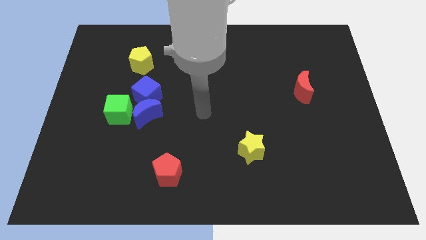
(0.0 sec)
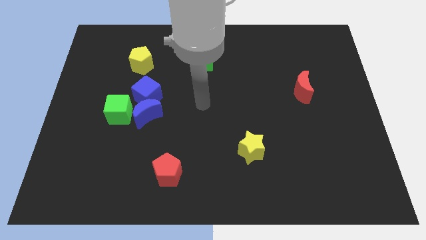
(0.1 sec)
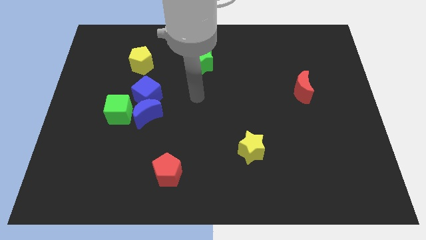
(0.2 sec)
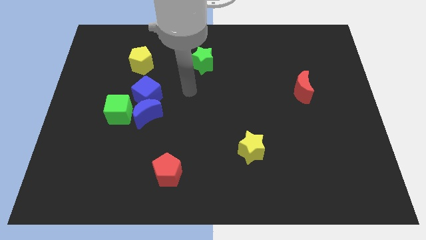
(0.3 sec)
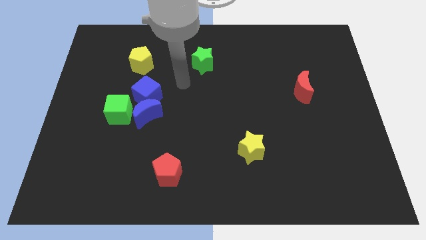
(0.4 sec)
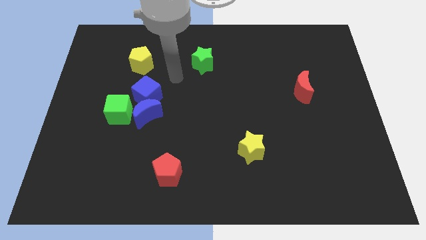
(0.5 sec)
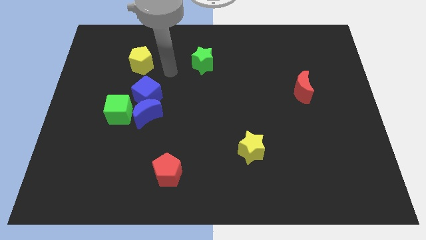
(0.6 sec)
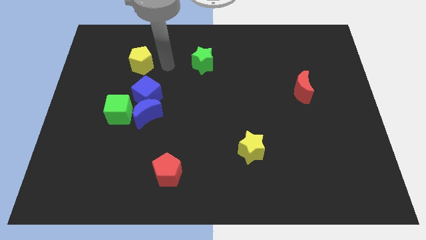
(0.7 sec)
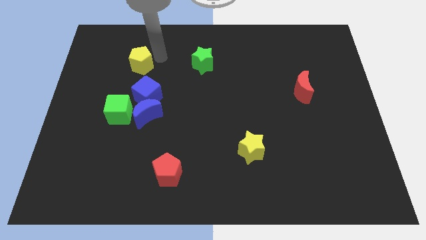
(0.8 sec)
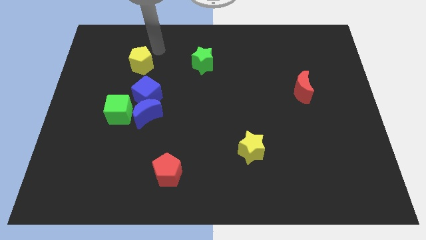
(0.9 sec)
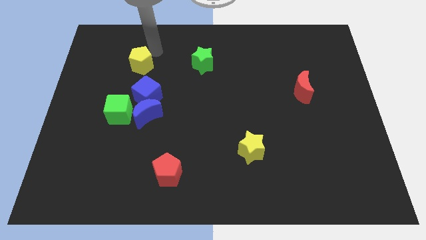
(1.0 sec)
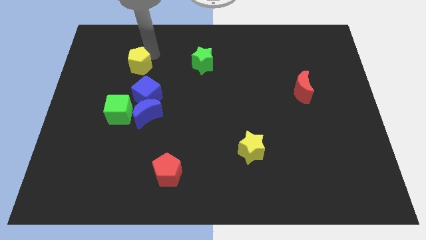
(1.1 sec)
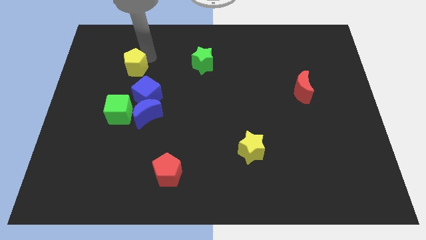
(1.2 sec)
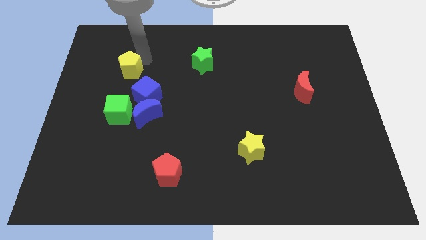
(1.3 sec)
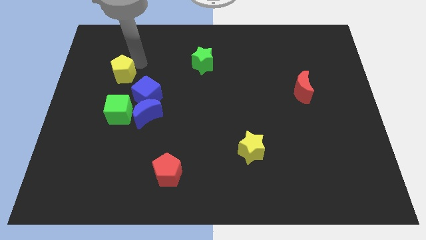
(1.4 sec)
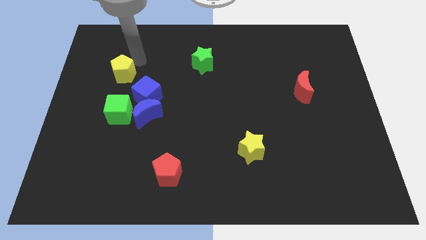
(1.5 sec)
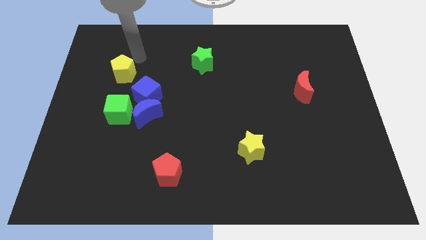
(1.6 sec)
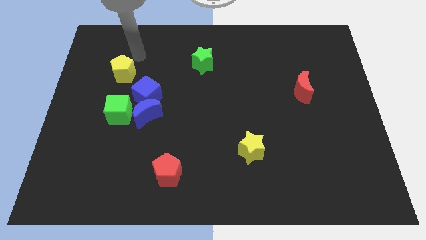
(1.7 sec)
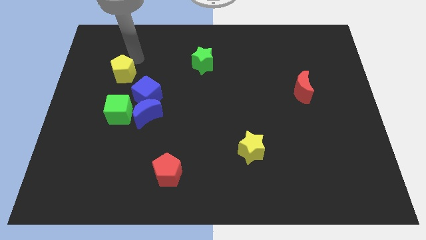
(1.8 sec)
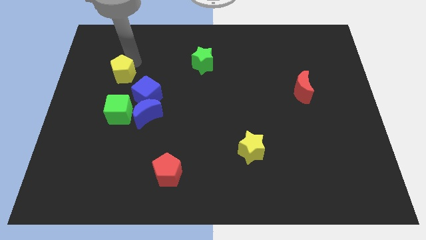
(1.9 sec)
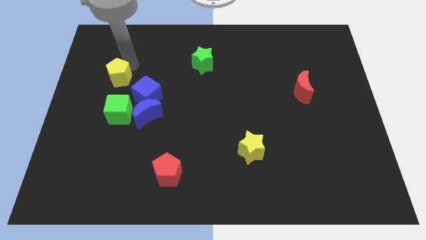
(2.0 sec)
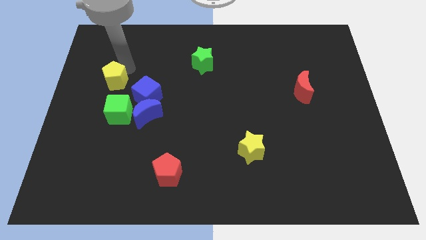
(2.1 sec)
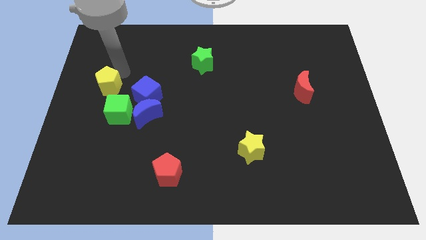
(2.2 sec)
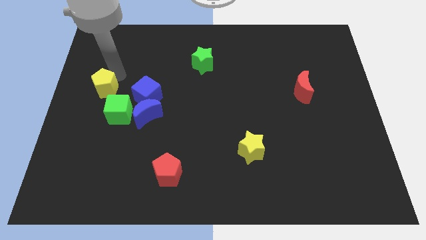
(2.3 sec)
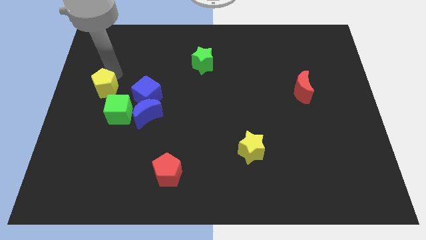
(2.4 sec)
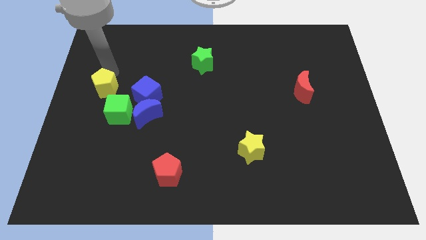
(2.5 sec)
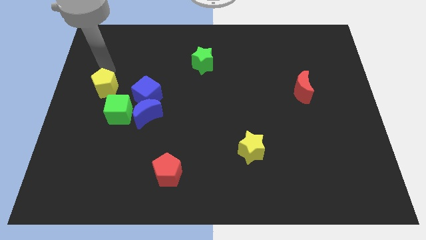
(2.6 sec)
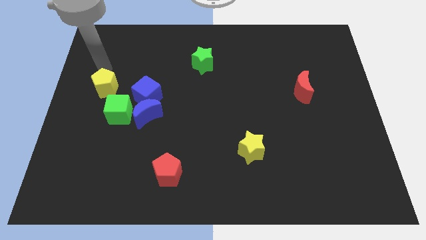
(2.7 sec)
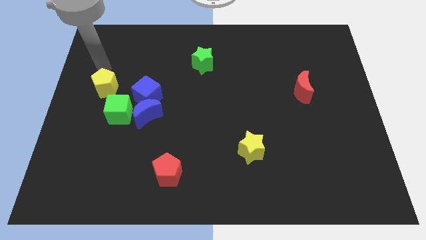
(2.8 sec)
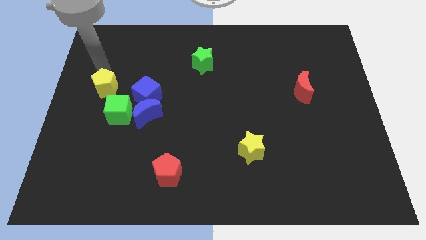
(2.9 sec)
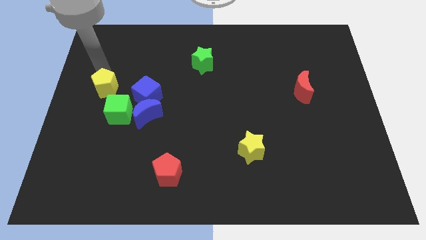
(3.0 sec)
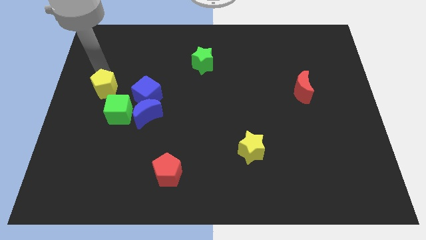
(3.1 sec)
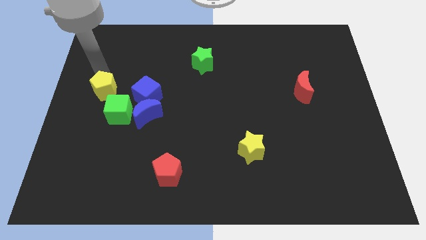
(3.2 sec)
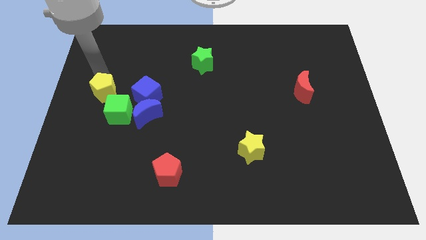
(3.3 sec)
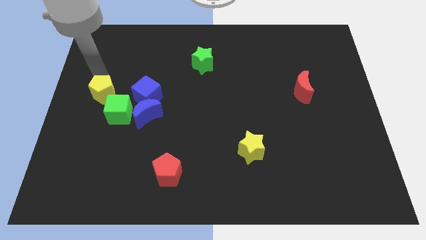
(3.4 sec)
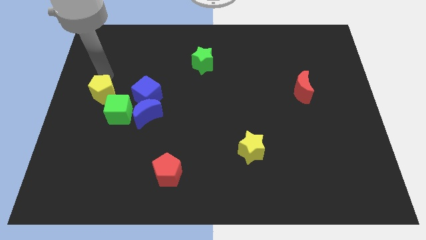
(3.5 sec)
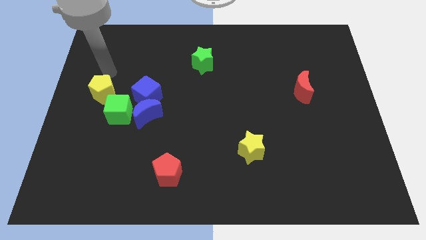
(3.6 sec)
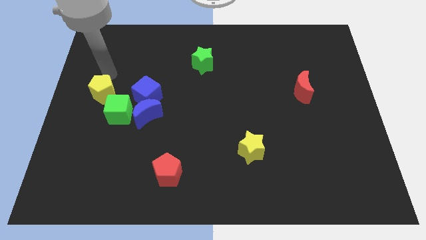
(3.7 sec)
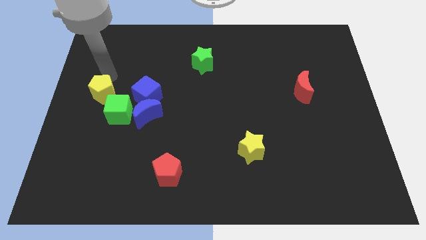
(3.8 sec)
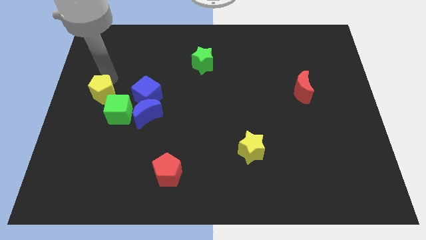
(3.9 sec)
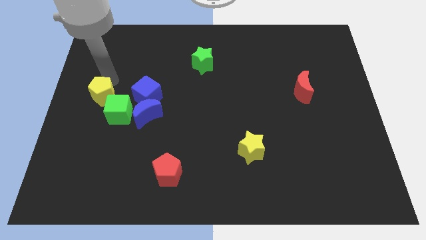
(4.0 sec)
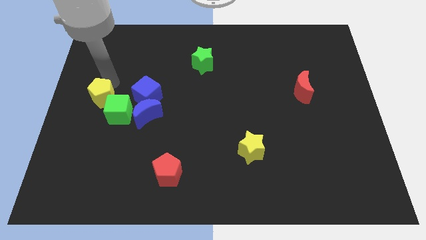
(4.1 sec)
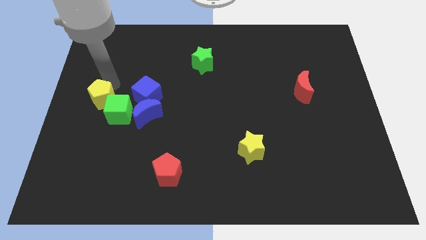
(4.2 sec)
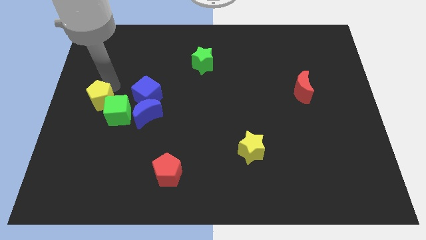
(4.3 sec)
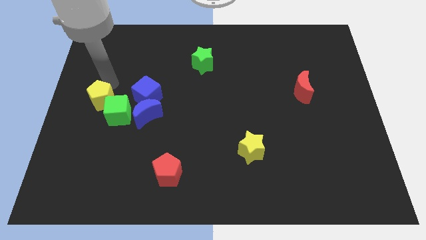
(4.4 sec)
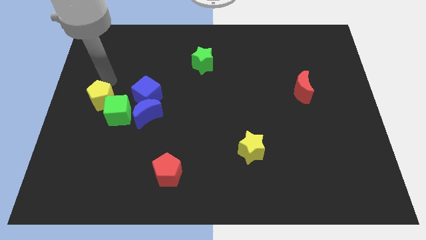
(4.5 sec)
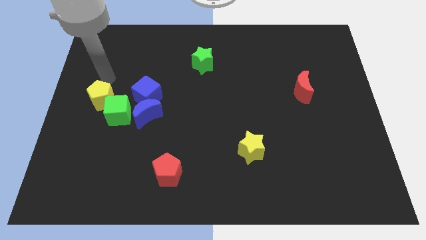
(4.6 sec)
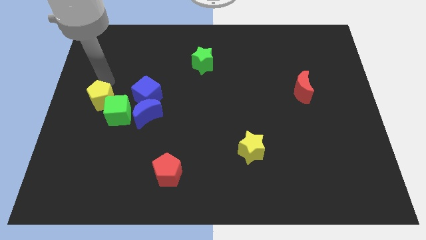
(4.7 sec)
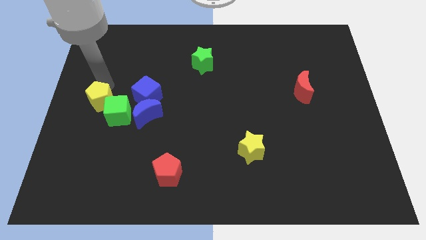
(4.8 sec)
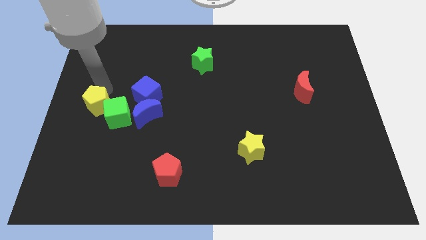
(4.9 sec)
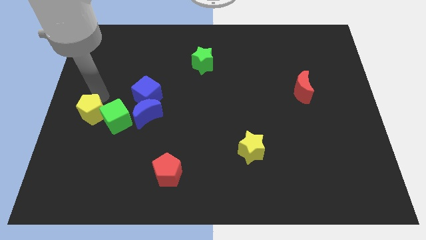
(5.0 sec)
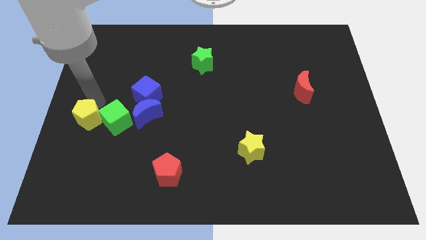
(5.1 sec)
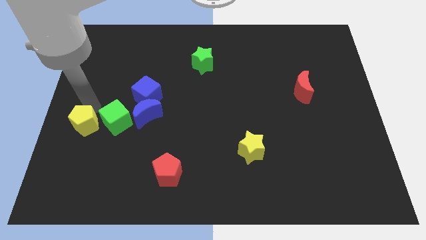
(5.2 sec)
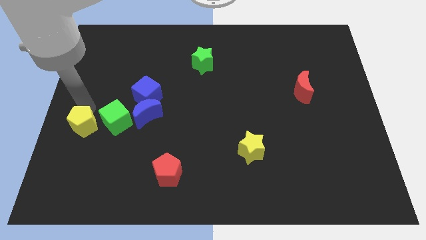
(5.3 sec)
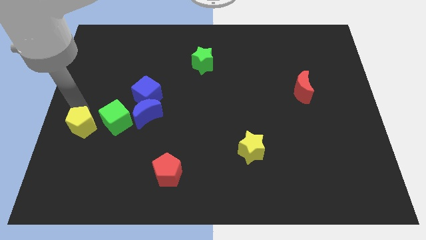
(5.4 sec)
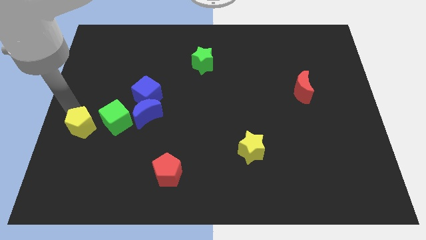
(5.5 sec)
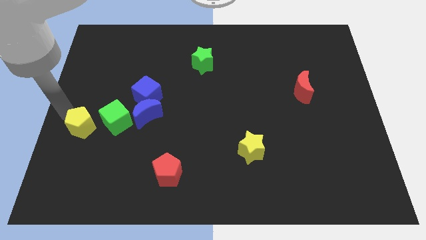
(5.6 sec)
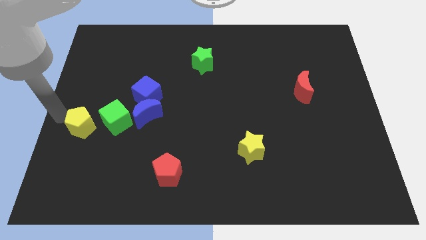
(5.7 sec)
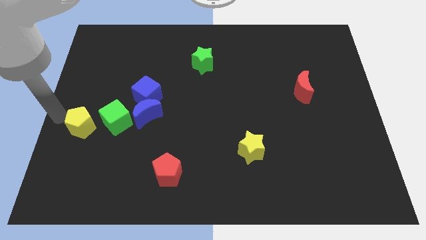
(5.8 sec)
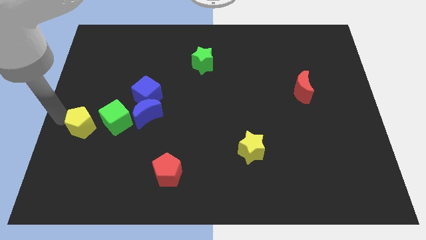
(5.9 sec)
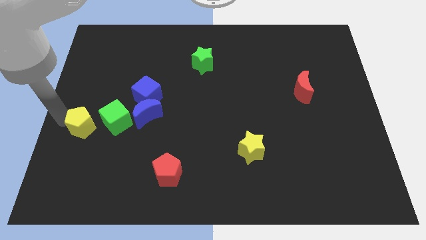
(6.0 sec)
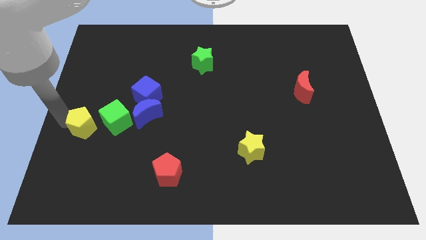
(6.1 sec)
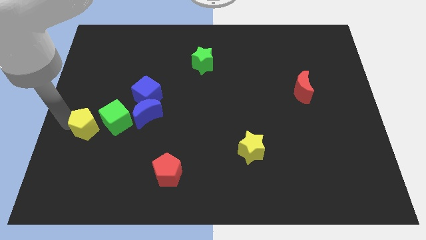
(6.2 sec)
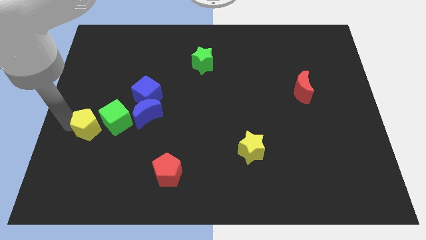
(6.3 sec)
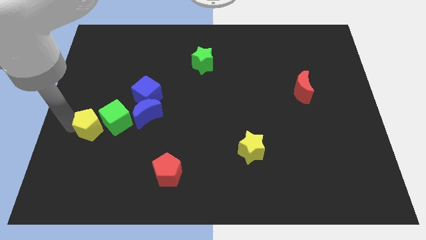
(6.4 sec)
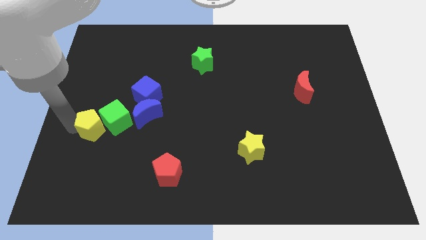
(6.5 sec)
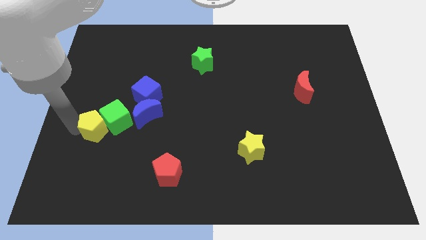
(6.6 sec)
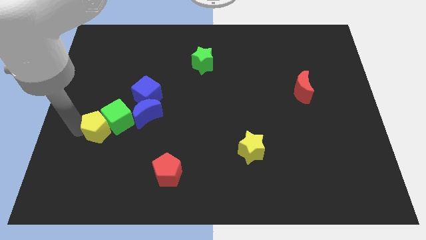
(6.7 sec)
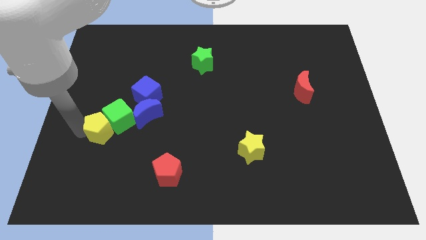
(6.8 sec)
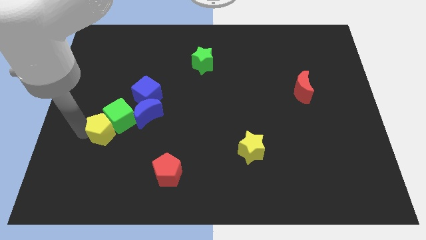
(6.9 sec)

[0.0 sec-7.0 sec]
slide the yellow pentagon down

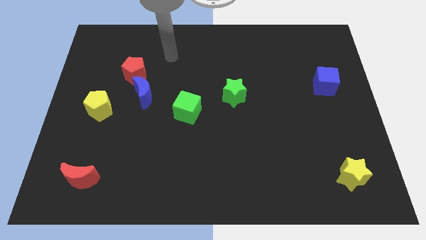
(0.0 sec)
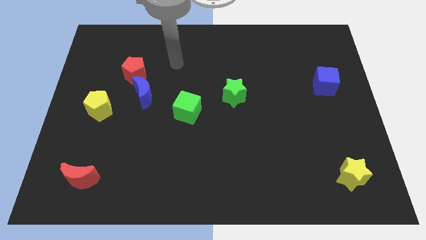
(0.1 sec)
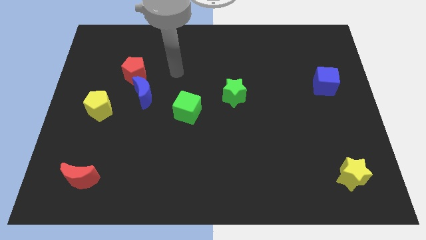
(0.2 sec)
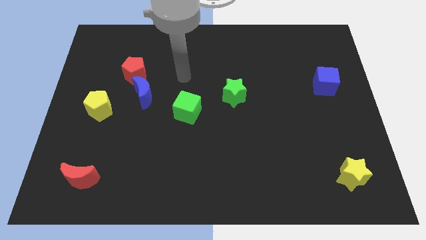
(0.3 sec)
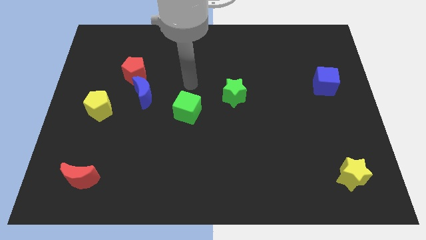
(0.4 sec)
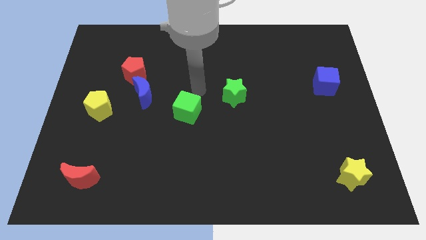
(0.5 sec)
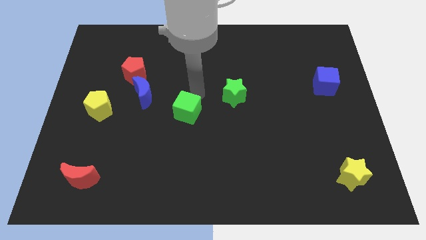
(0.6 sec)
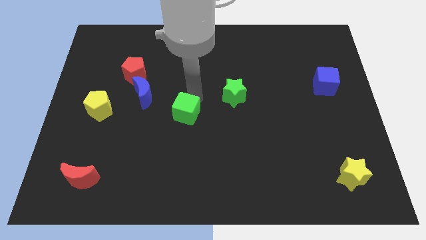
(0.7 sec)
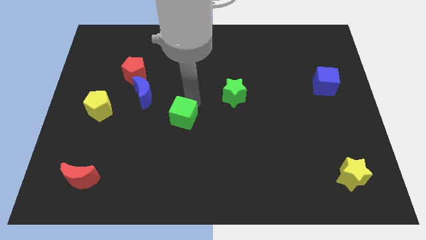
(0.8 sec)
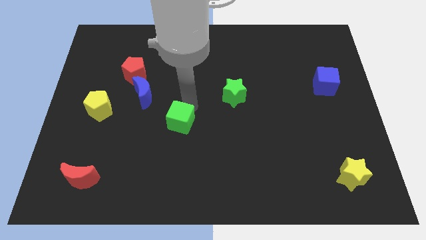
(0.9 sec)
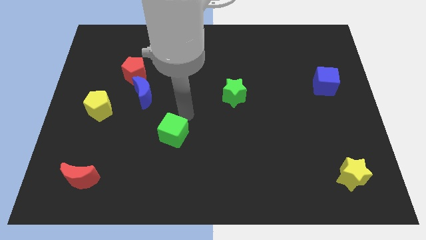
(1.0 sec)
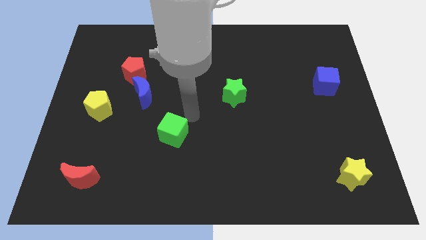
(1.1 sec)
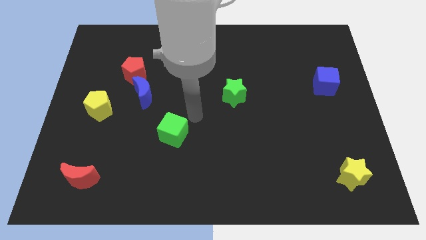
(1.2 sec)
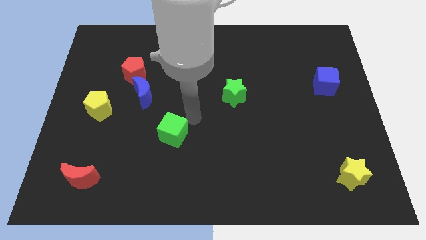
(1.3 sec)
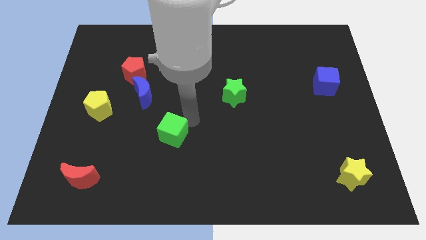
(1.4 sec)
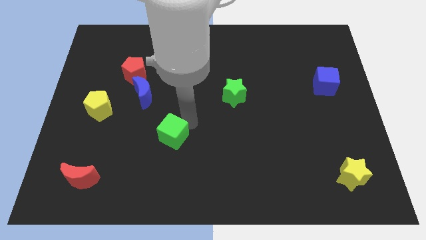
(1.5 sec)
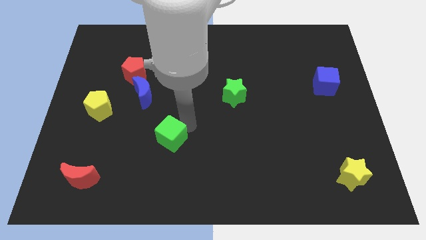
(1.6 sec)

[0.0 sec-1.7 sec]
move the green cube slightly downwards and left
